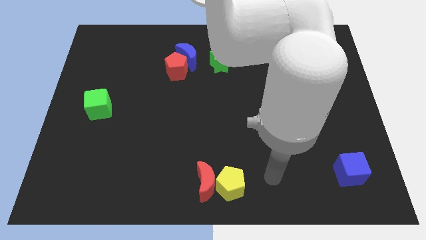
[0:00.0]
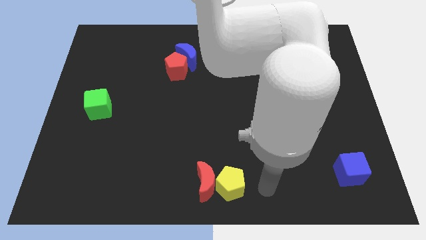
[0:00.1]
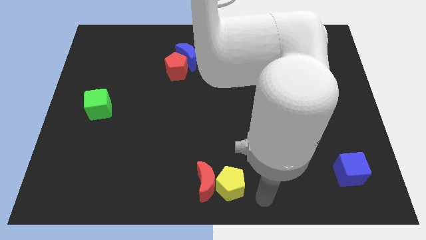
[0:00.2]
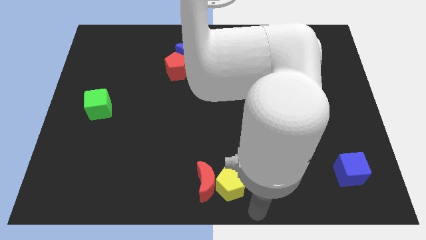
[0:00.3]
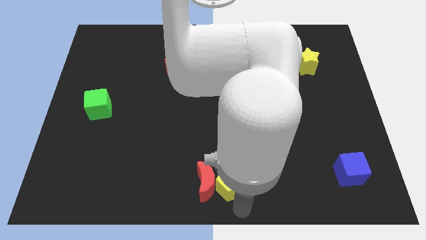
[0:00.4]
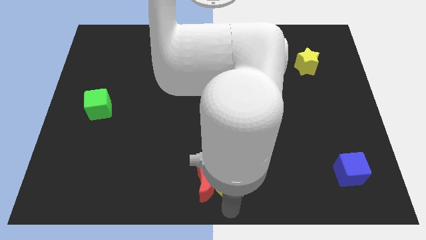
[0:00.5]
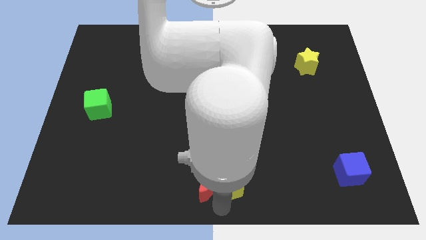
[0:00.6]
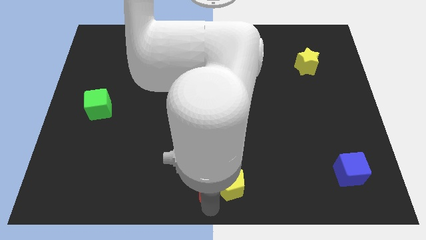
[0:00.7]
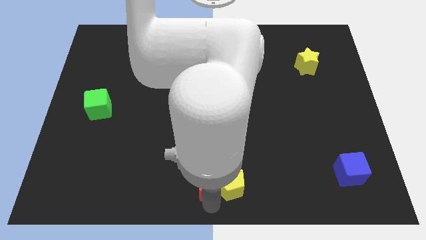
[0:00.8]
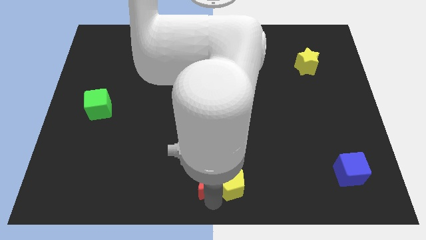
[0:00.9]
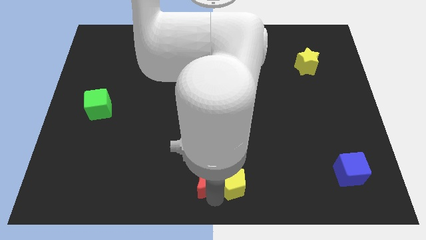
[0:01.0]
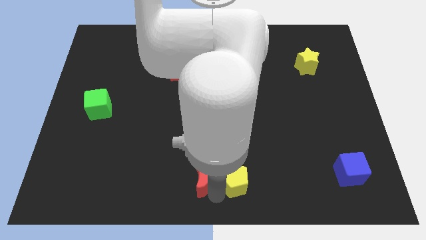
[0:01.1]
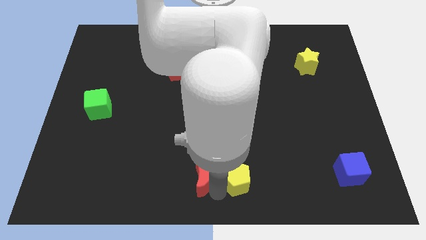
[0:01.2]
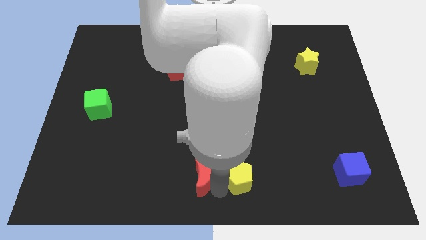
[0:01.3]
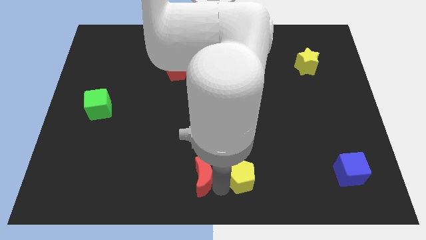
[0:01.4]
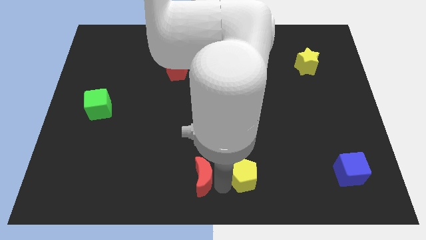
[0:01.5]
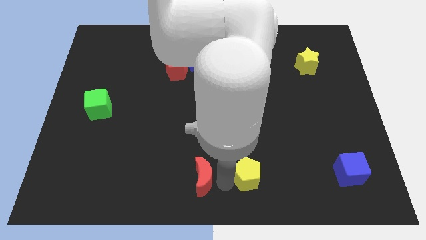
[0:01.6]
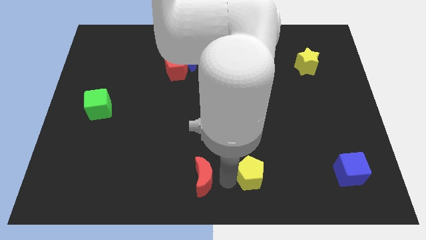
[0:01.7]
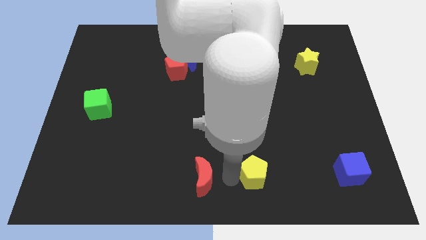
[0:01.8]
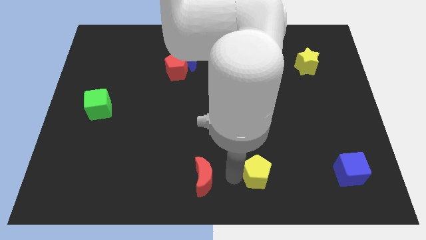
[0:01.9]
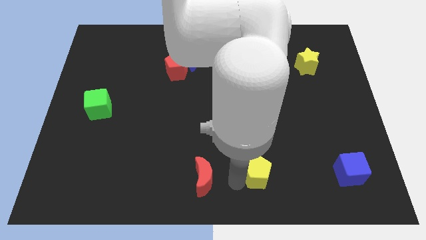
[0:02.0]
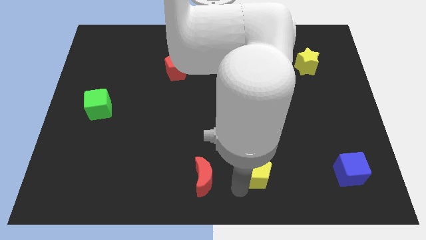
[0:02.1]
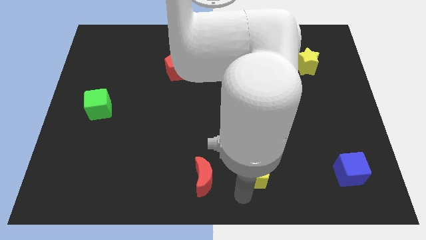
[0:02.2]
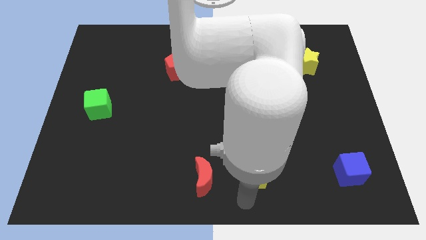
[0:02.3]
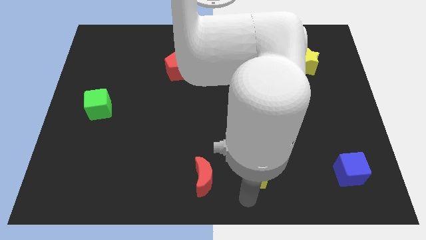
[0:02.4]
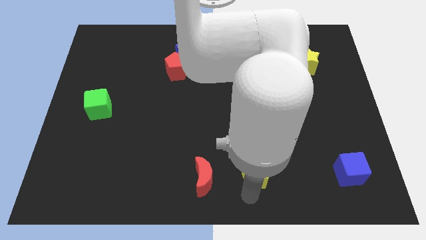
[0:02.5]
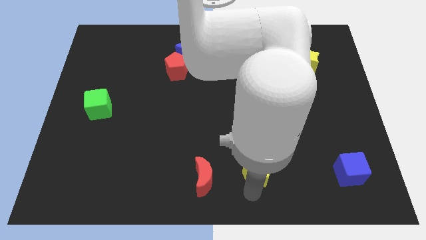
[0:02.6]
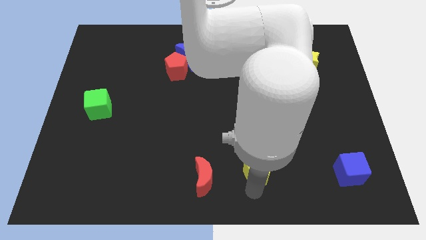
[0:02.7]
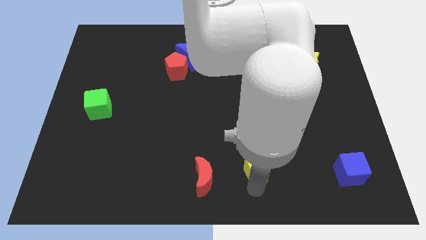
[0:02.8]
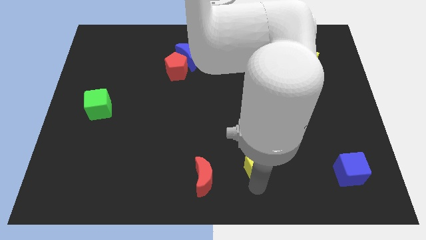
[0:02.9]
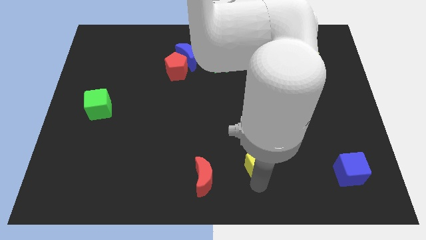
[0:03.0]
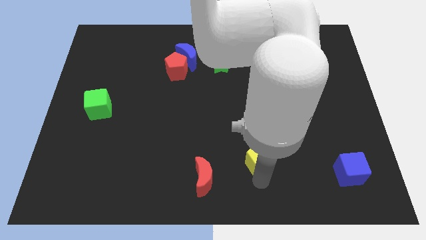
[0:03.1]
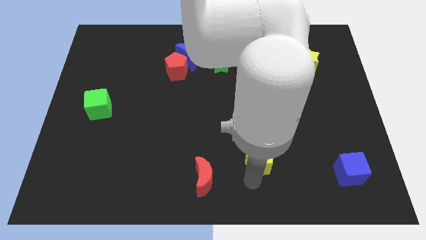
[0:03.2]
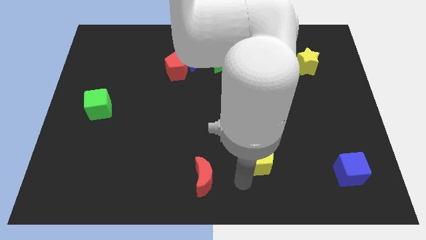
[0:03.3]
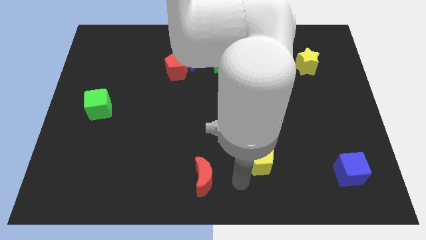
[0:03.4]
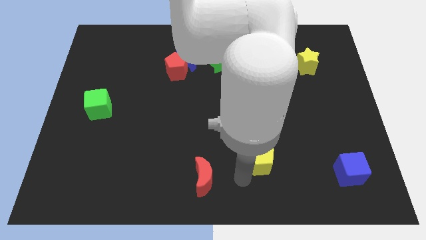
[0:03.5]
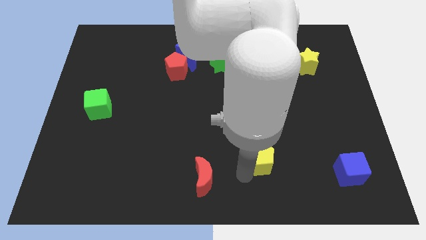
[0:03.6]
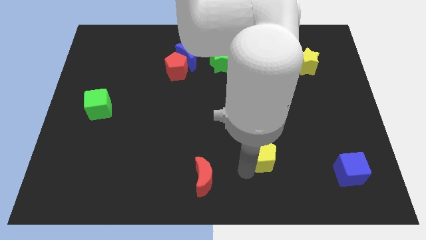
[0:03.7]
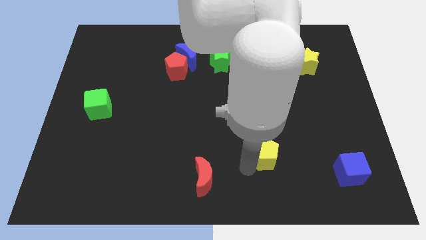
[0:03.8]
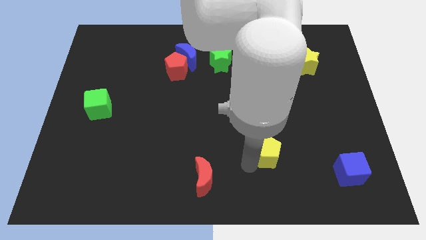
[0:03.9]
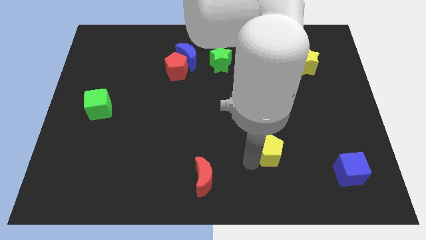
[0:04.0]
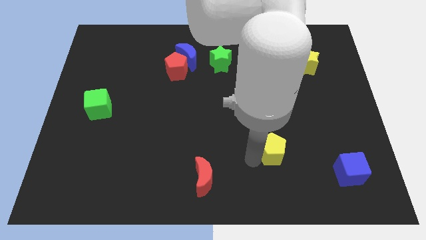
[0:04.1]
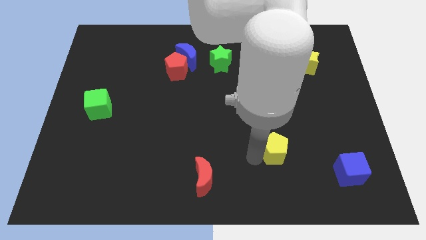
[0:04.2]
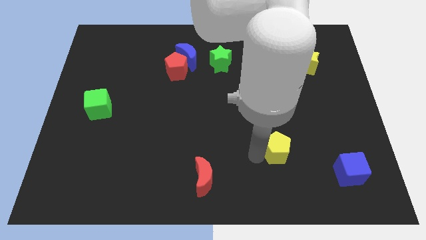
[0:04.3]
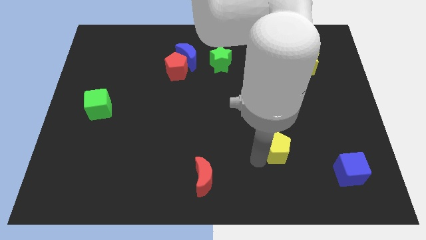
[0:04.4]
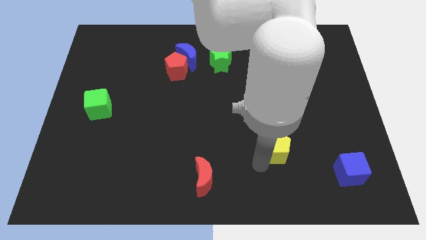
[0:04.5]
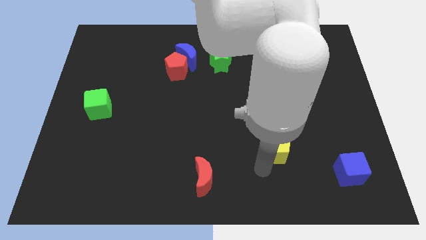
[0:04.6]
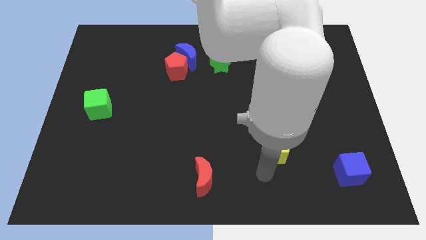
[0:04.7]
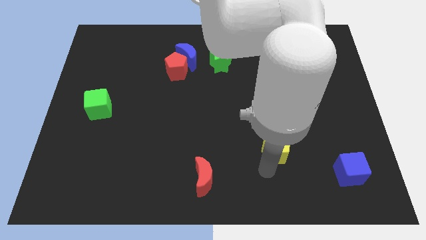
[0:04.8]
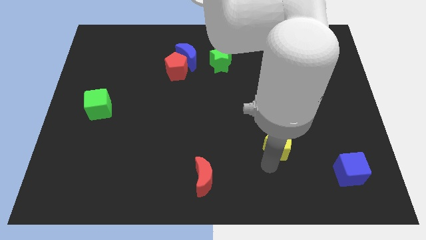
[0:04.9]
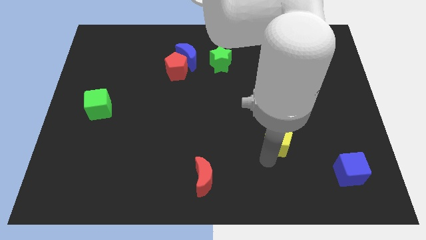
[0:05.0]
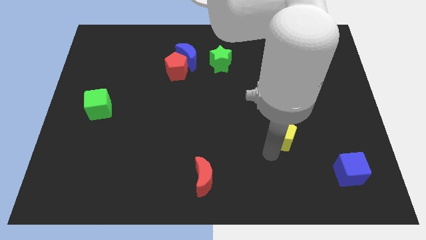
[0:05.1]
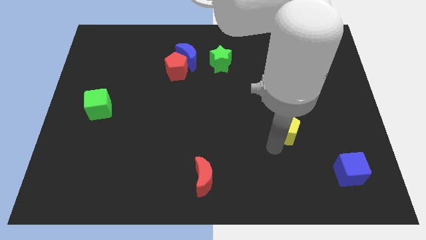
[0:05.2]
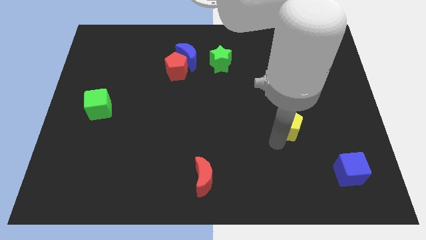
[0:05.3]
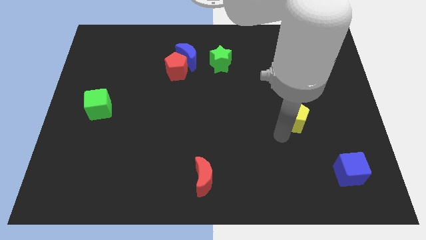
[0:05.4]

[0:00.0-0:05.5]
slide the yellow pentagon diagonally up and right

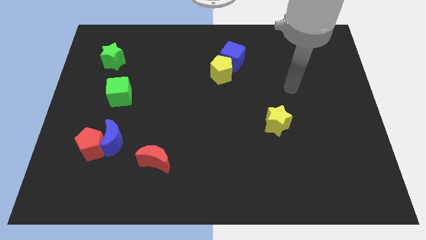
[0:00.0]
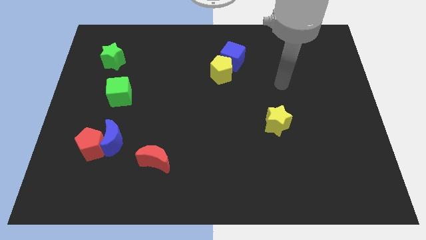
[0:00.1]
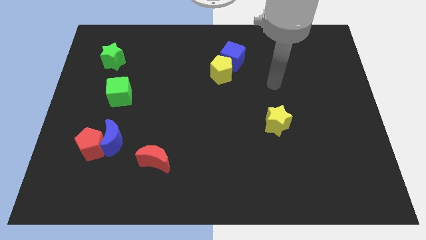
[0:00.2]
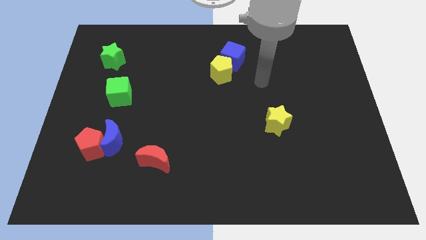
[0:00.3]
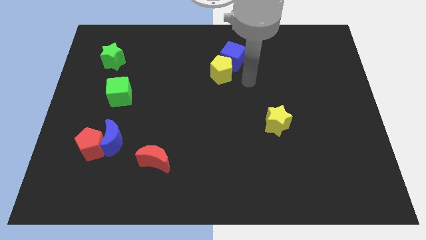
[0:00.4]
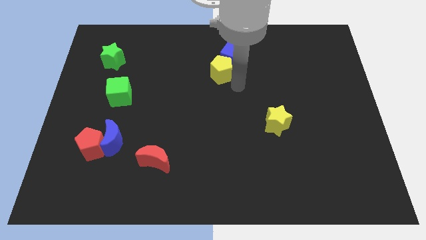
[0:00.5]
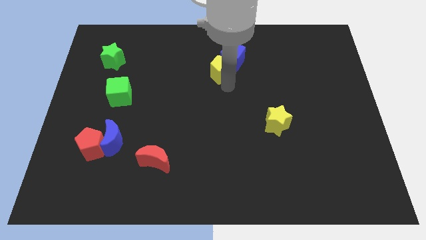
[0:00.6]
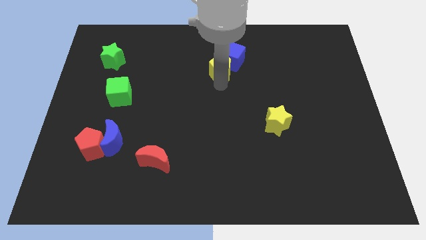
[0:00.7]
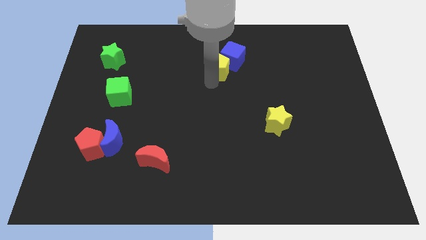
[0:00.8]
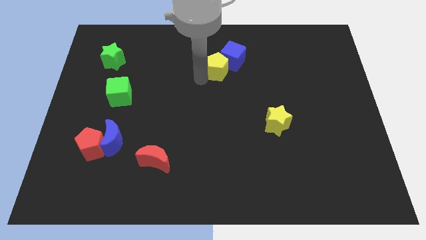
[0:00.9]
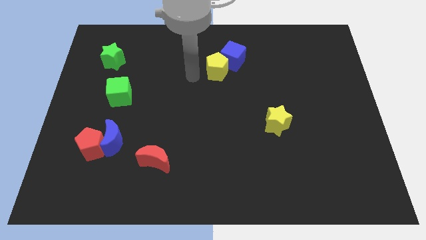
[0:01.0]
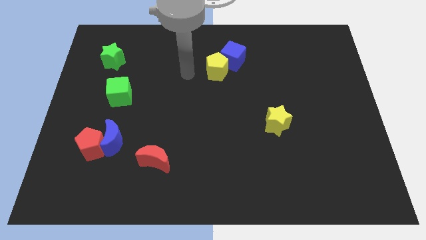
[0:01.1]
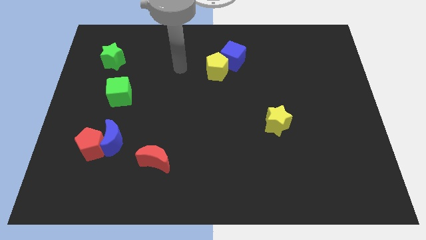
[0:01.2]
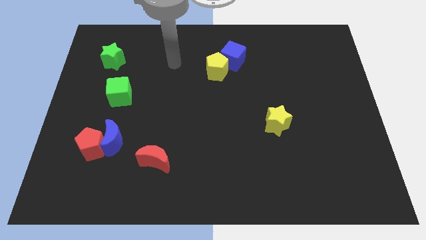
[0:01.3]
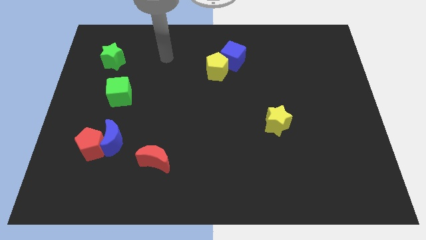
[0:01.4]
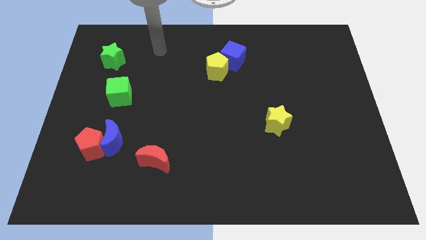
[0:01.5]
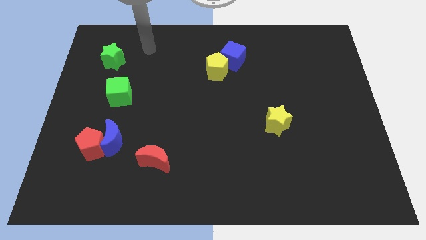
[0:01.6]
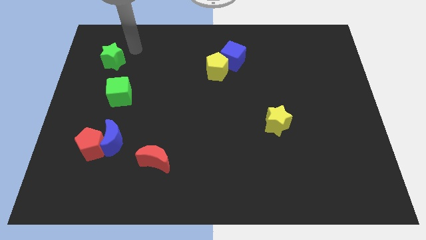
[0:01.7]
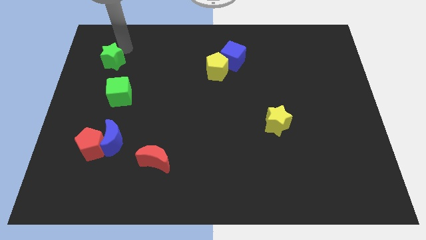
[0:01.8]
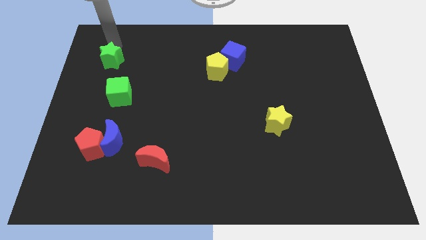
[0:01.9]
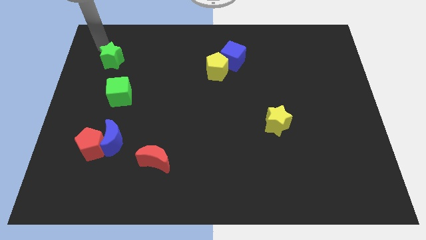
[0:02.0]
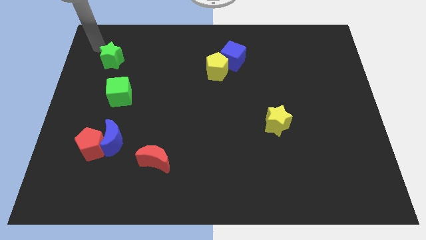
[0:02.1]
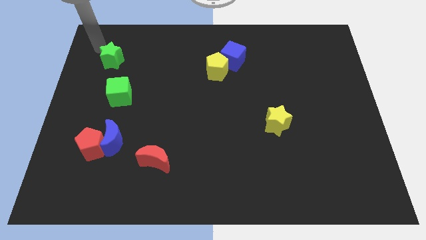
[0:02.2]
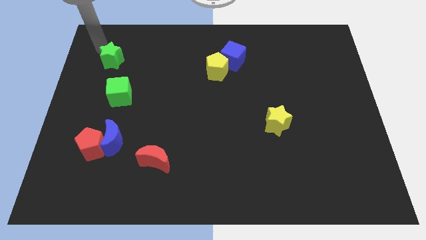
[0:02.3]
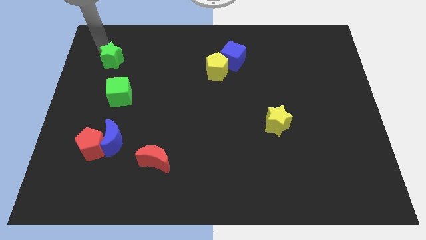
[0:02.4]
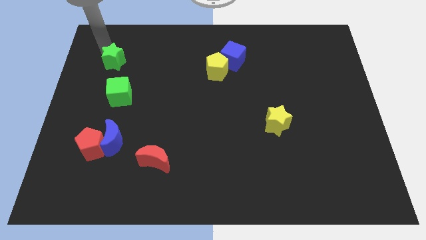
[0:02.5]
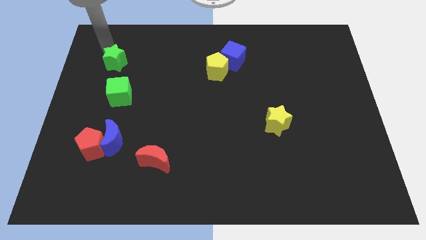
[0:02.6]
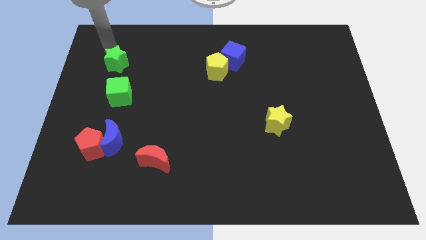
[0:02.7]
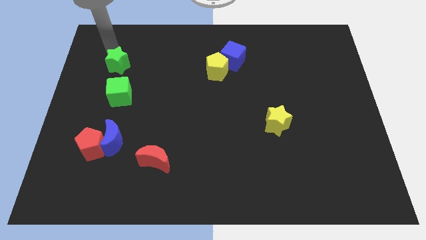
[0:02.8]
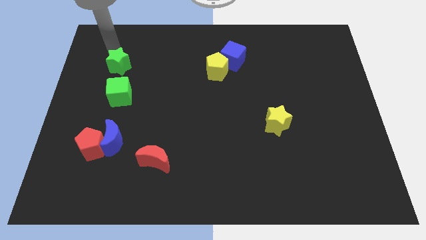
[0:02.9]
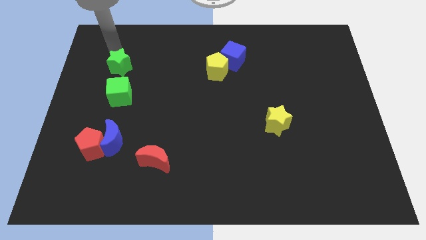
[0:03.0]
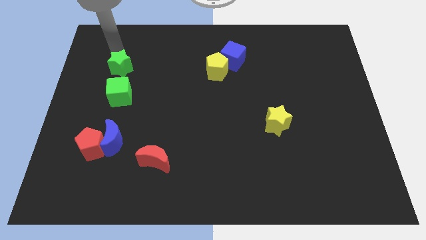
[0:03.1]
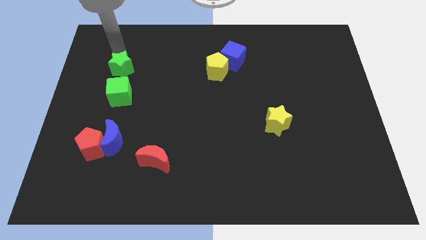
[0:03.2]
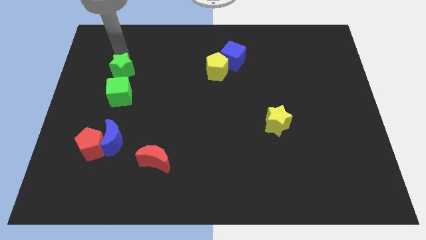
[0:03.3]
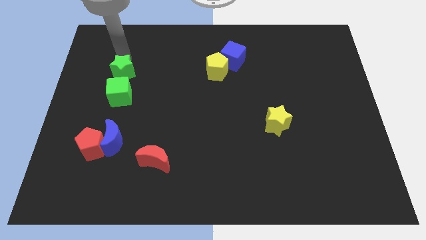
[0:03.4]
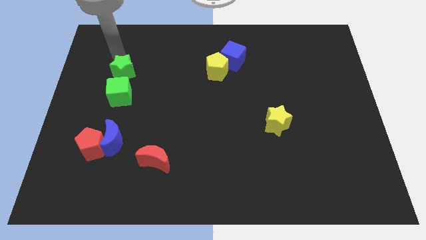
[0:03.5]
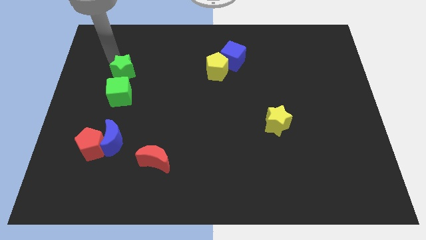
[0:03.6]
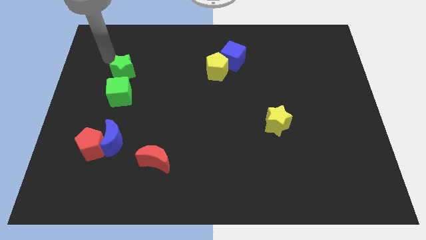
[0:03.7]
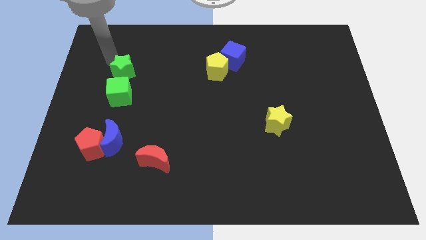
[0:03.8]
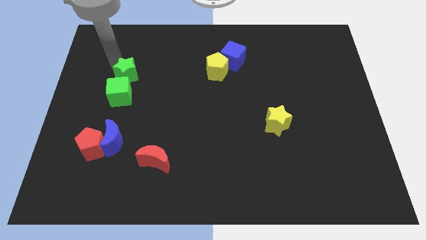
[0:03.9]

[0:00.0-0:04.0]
slightly move the green star downwards and then right
